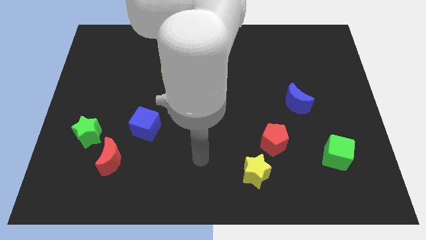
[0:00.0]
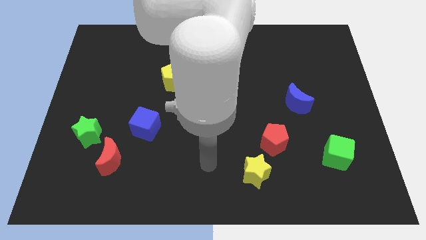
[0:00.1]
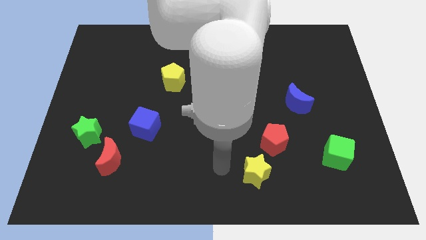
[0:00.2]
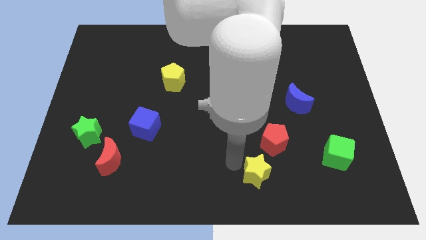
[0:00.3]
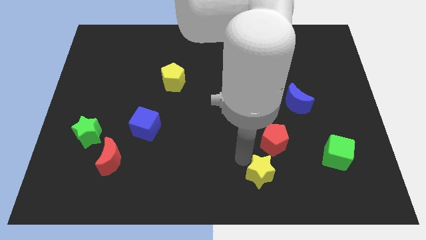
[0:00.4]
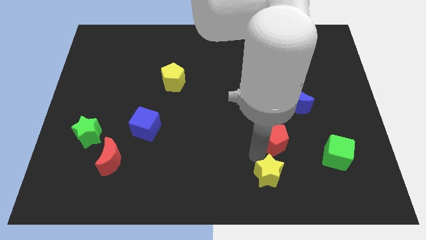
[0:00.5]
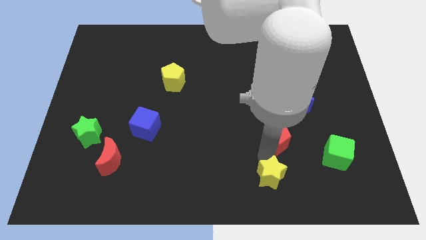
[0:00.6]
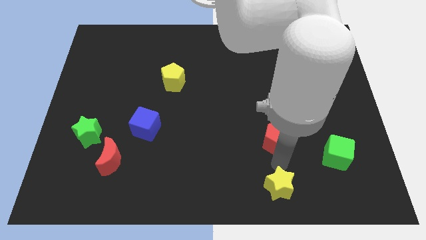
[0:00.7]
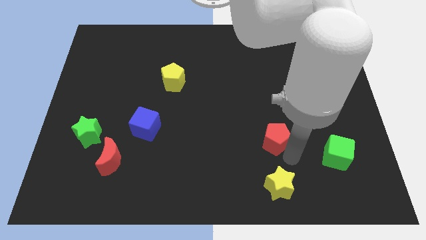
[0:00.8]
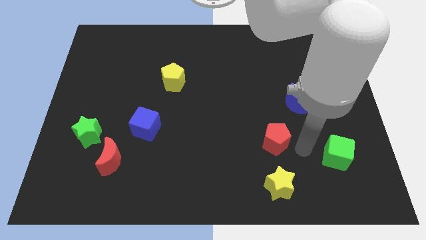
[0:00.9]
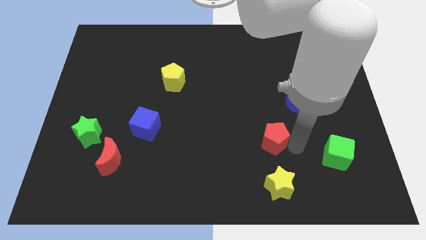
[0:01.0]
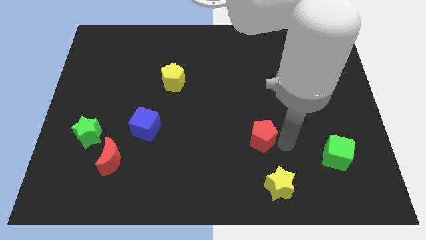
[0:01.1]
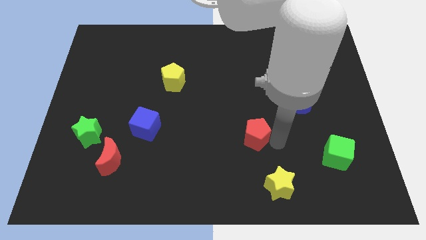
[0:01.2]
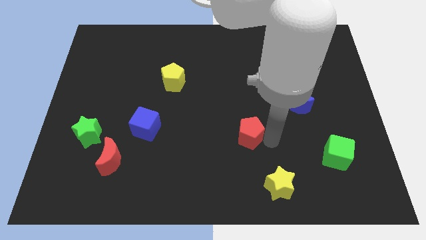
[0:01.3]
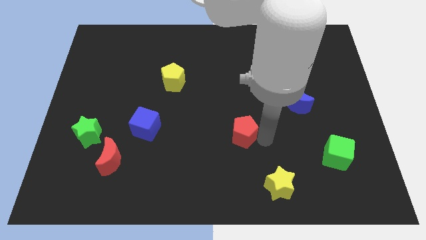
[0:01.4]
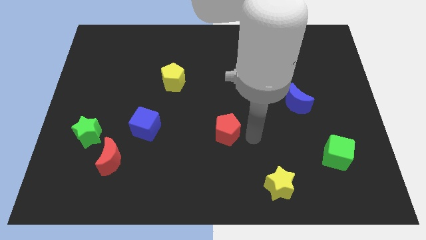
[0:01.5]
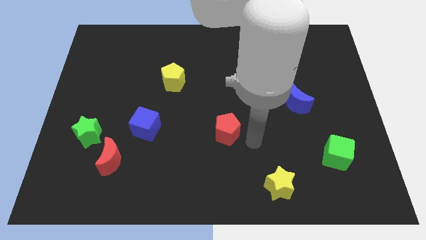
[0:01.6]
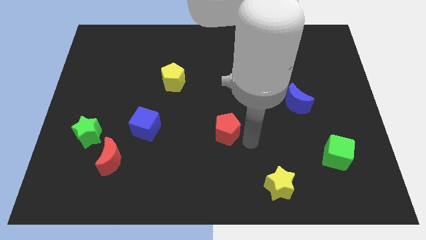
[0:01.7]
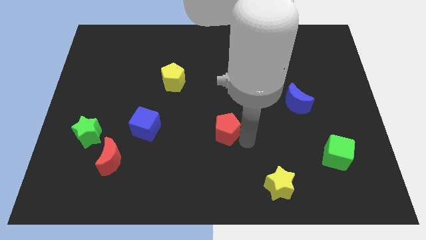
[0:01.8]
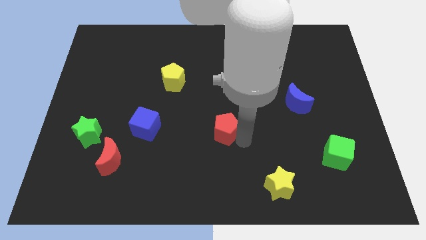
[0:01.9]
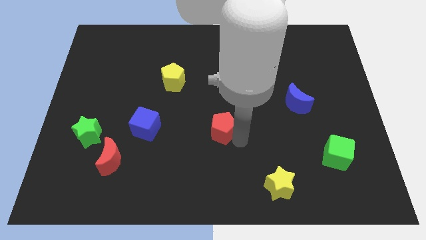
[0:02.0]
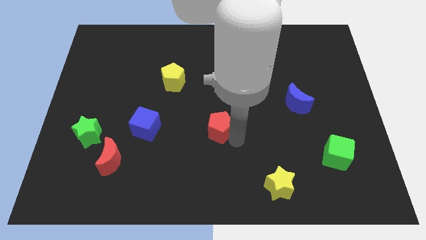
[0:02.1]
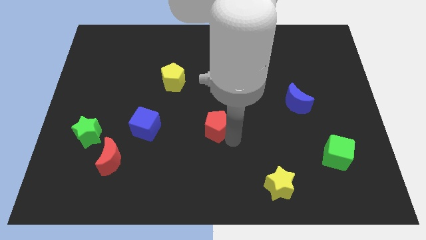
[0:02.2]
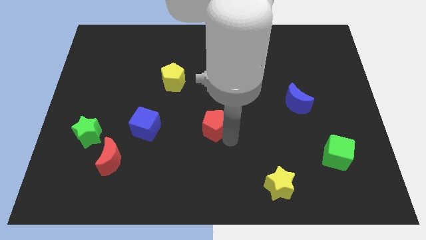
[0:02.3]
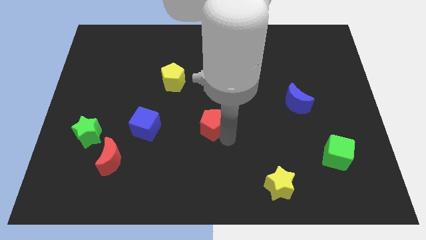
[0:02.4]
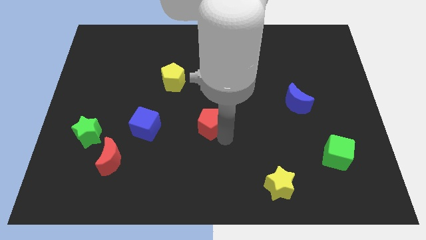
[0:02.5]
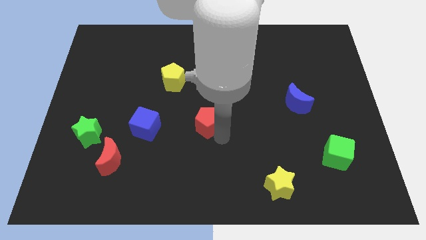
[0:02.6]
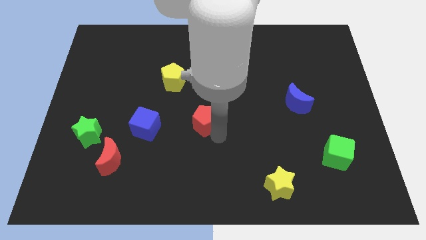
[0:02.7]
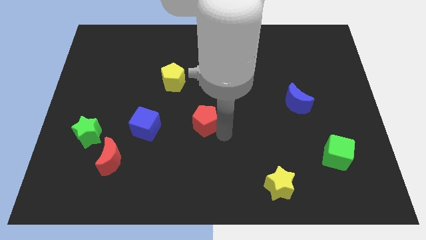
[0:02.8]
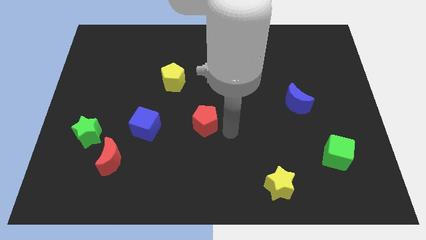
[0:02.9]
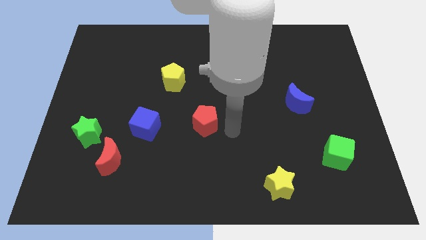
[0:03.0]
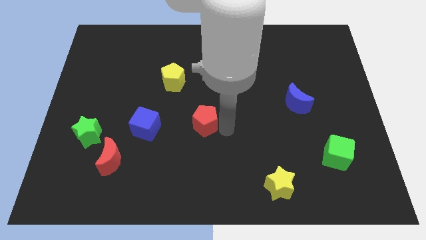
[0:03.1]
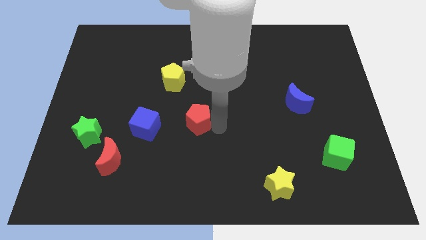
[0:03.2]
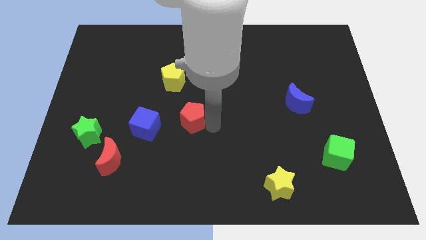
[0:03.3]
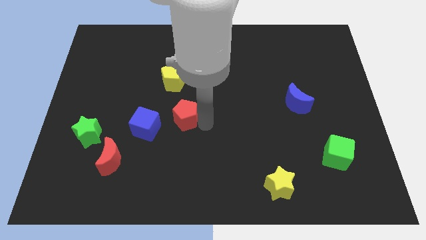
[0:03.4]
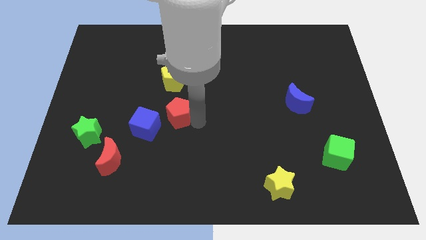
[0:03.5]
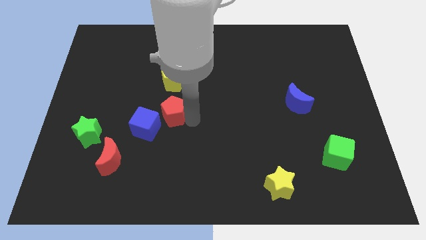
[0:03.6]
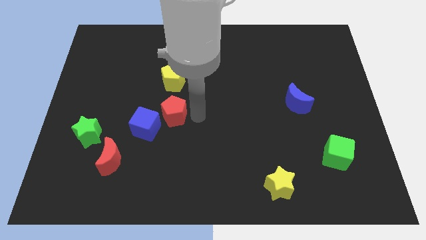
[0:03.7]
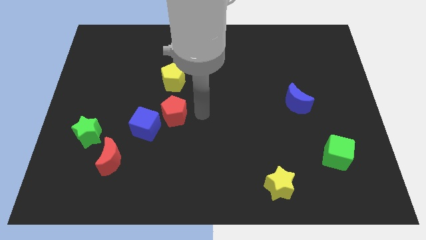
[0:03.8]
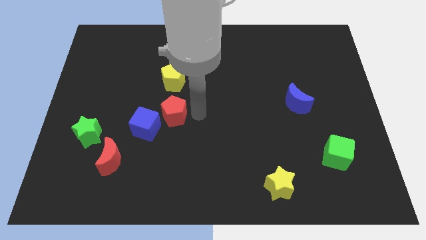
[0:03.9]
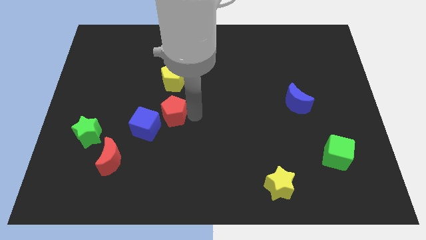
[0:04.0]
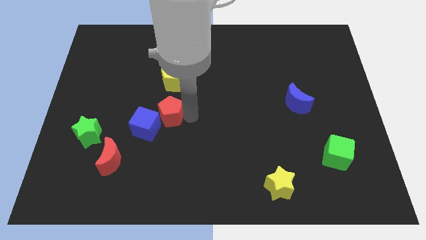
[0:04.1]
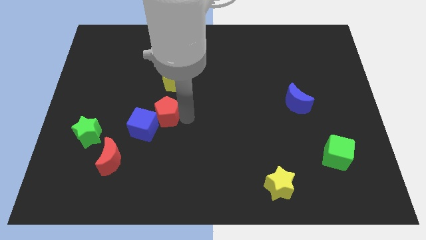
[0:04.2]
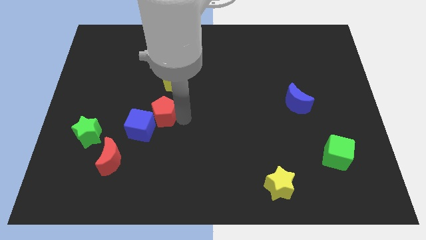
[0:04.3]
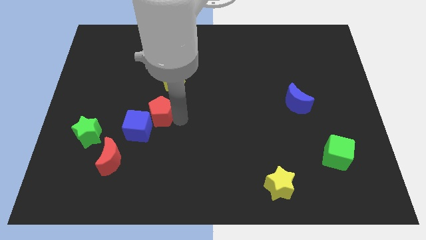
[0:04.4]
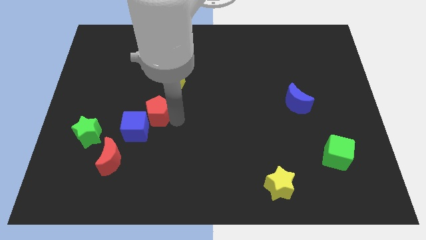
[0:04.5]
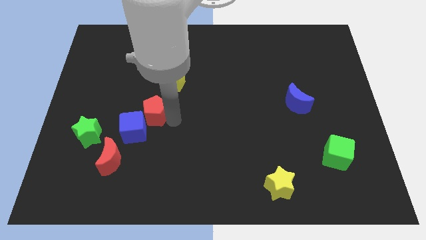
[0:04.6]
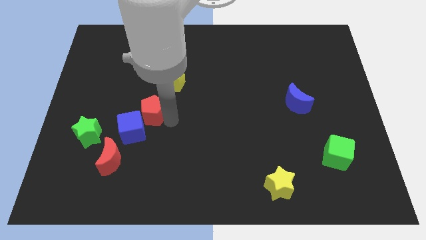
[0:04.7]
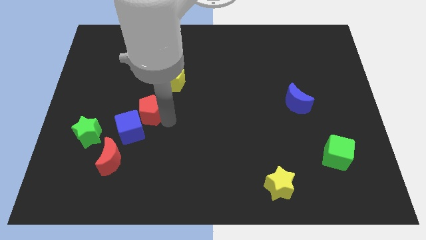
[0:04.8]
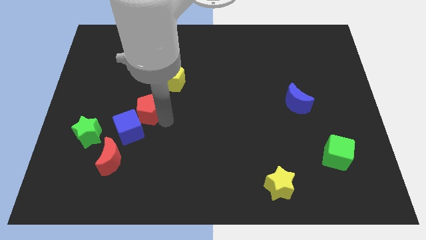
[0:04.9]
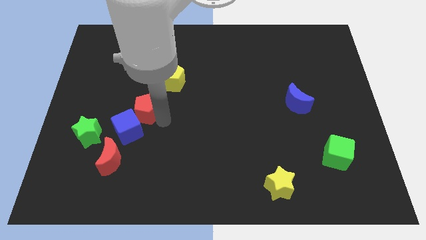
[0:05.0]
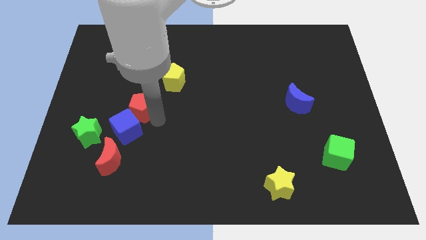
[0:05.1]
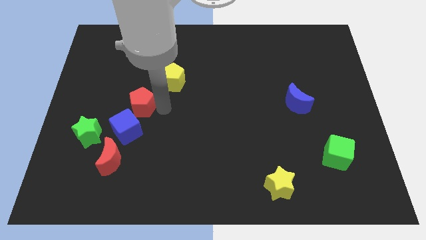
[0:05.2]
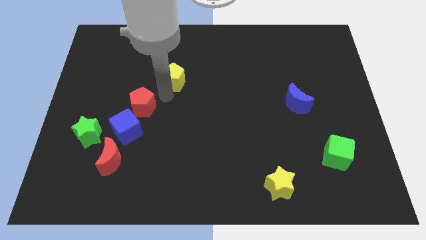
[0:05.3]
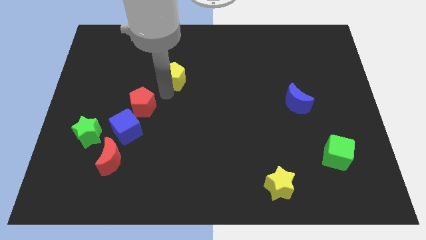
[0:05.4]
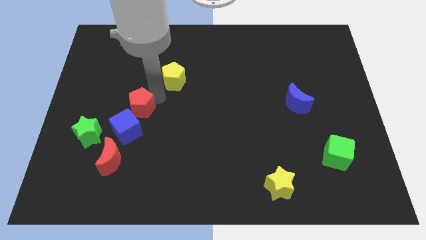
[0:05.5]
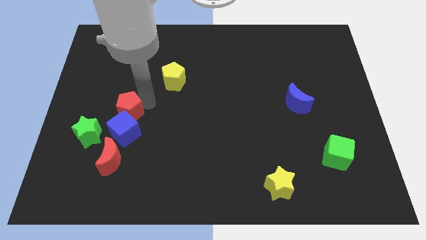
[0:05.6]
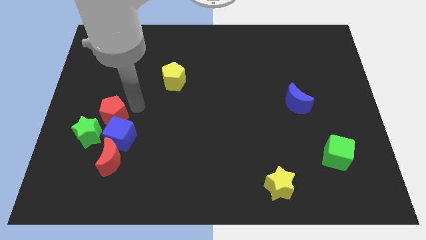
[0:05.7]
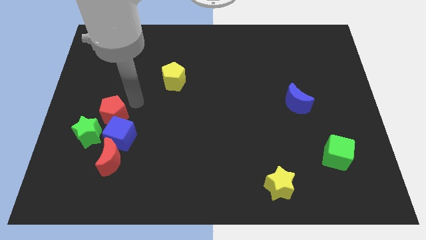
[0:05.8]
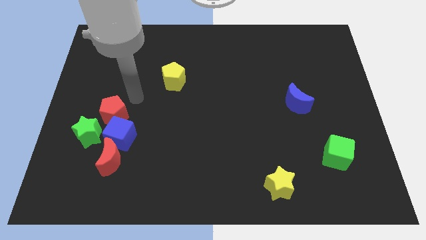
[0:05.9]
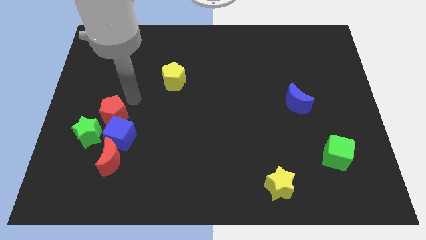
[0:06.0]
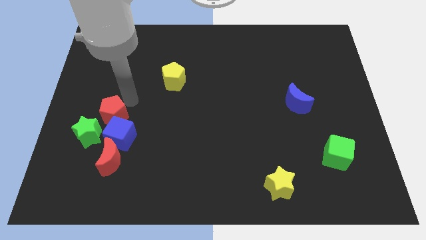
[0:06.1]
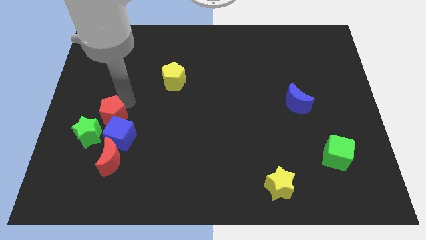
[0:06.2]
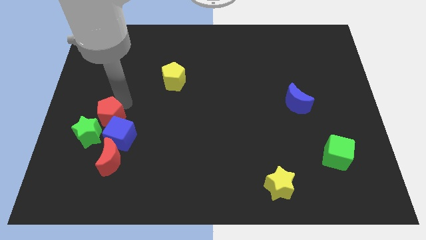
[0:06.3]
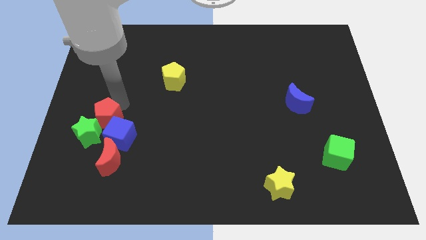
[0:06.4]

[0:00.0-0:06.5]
push the red pentagon next to the green star

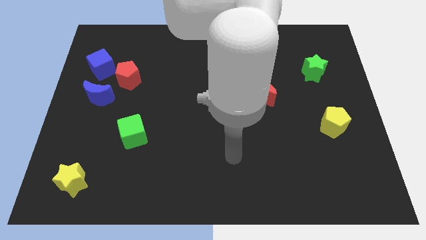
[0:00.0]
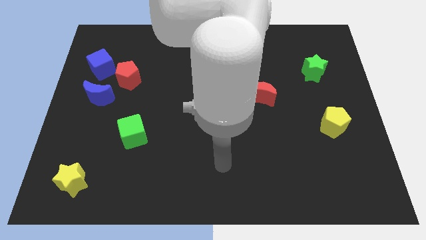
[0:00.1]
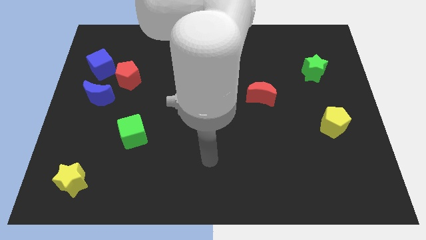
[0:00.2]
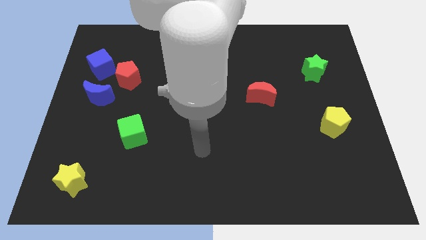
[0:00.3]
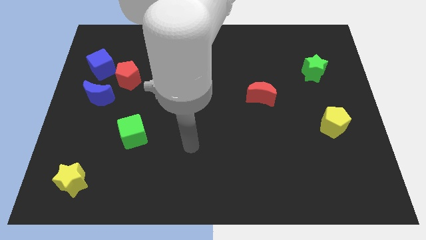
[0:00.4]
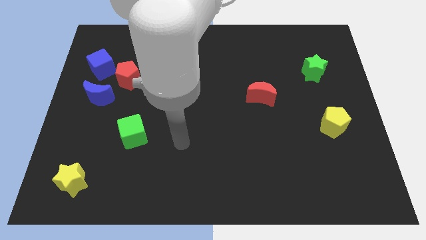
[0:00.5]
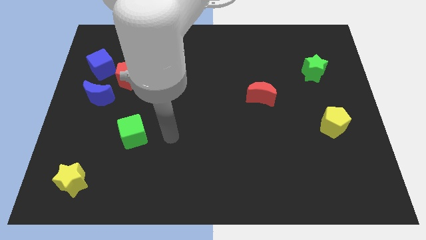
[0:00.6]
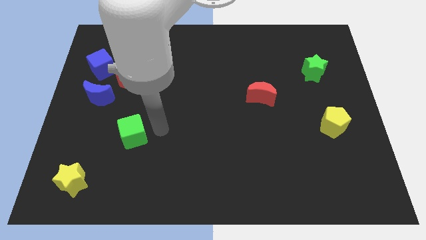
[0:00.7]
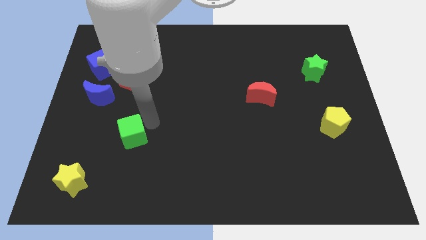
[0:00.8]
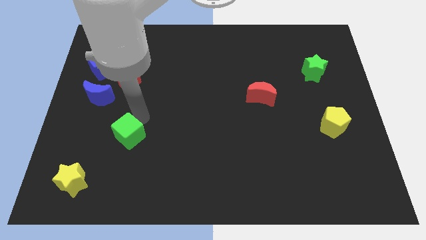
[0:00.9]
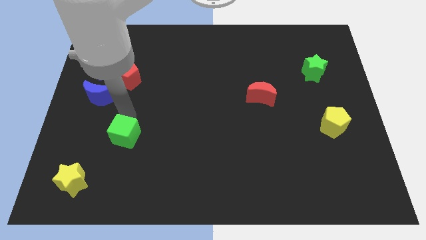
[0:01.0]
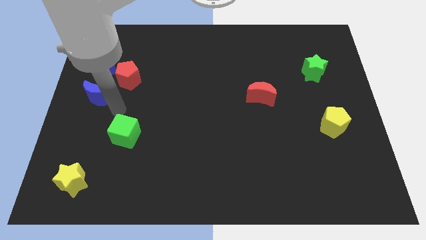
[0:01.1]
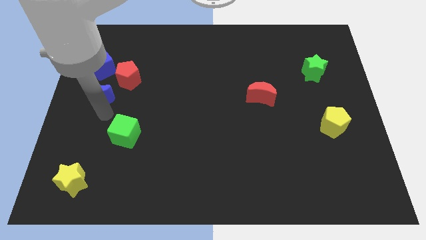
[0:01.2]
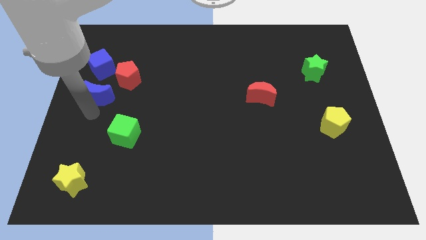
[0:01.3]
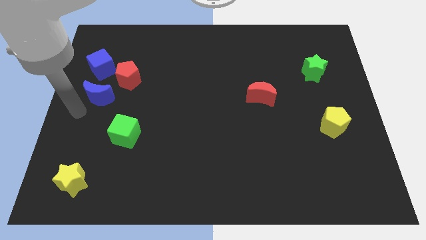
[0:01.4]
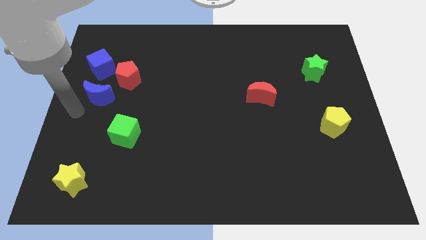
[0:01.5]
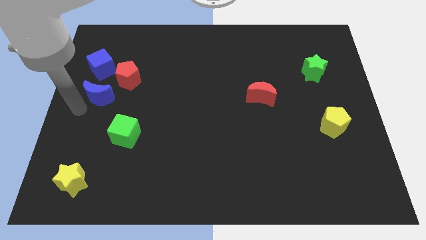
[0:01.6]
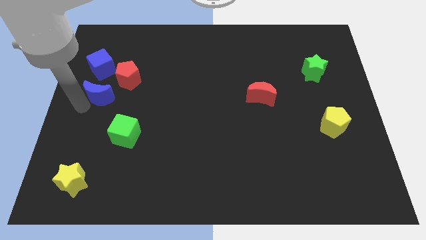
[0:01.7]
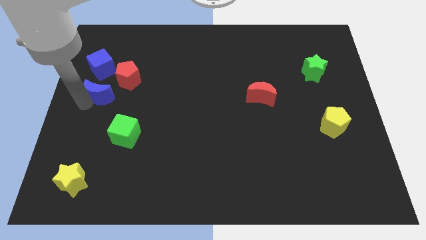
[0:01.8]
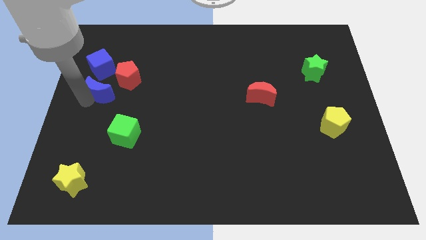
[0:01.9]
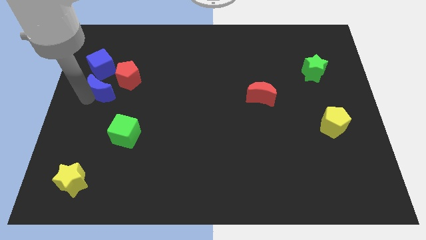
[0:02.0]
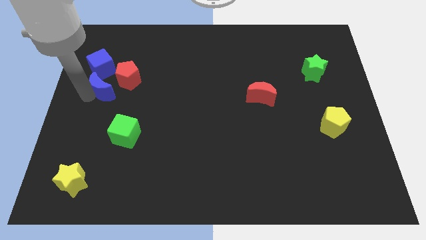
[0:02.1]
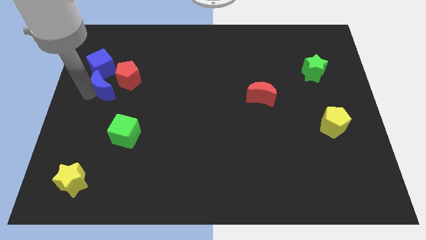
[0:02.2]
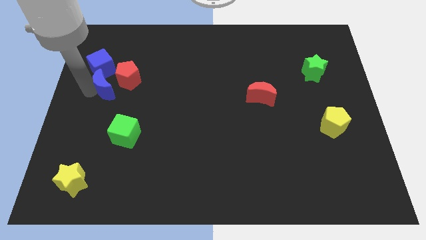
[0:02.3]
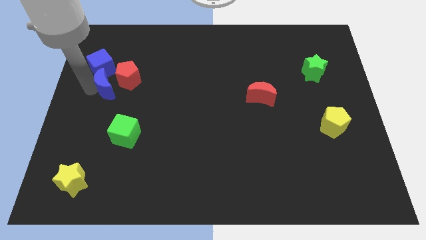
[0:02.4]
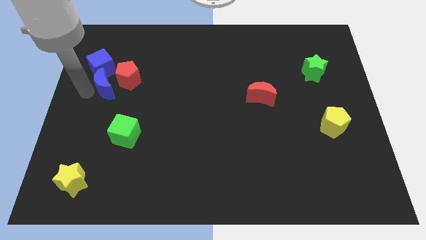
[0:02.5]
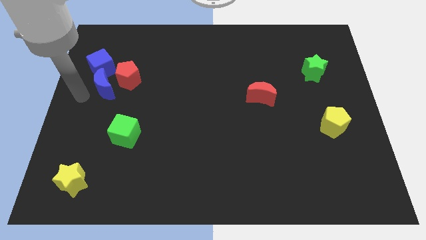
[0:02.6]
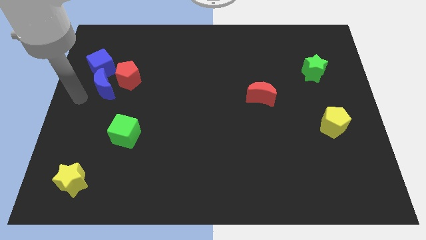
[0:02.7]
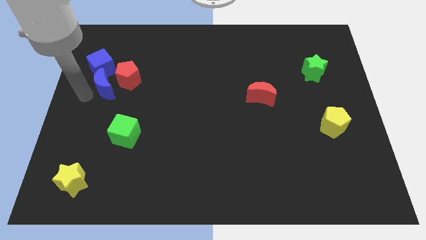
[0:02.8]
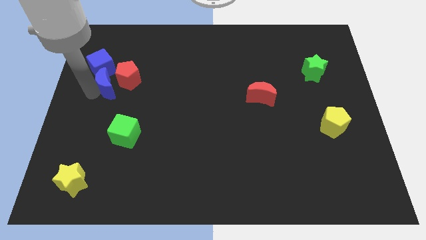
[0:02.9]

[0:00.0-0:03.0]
slide the blue moon towards the red pentagon
